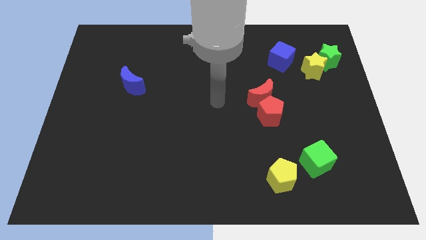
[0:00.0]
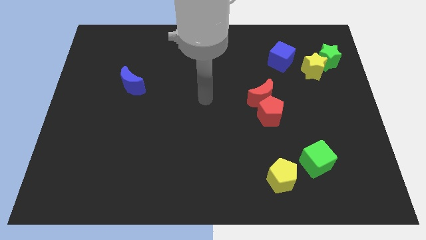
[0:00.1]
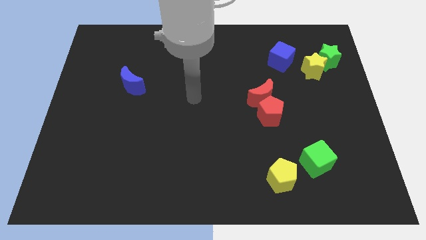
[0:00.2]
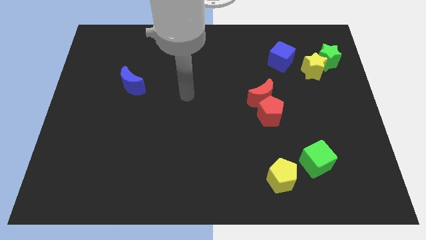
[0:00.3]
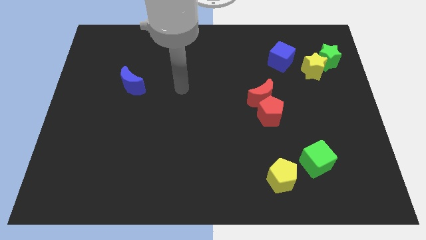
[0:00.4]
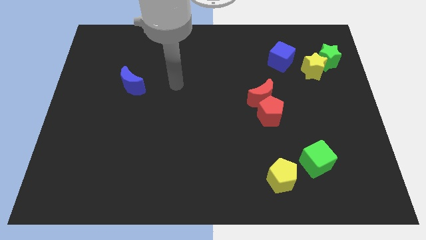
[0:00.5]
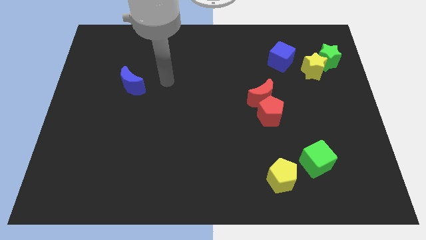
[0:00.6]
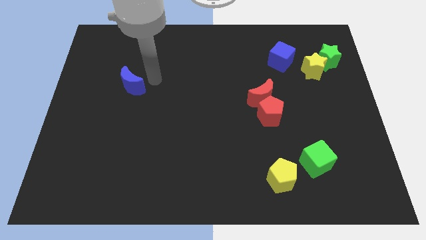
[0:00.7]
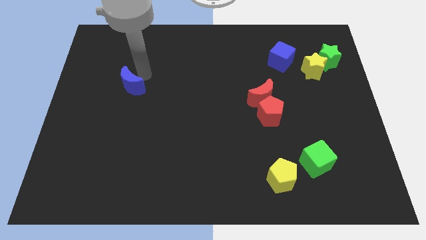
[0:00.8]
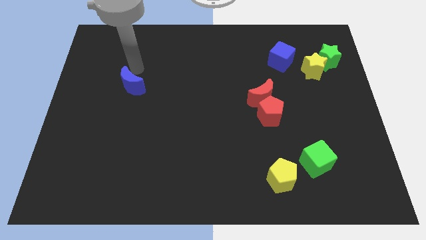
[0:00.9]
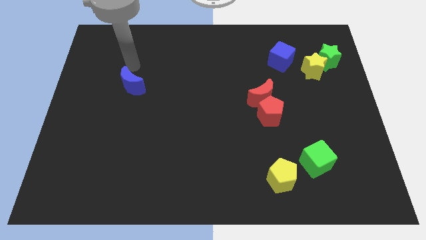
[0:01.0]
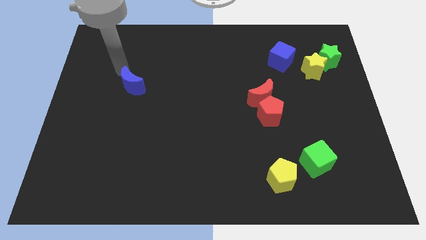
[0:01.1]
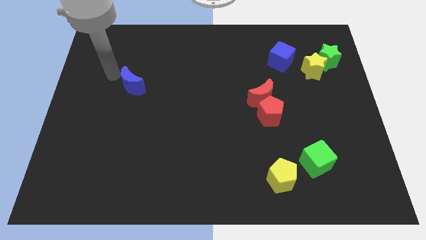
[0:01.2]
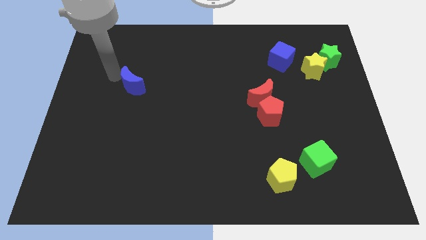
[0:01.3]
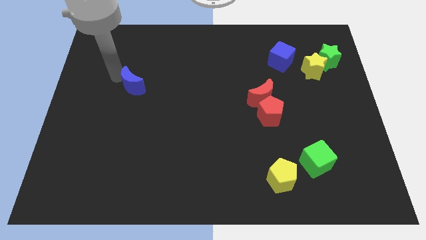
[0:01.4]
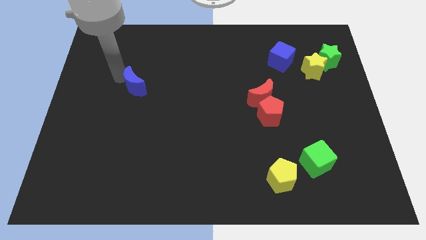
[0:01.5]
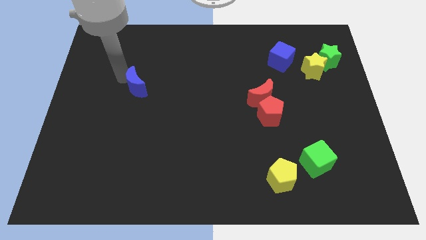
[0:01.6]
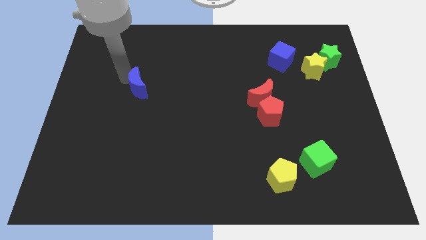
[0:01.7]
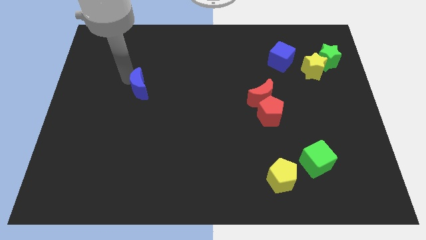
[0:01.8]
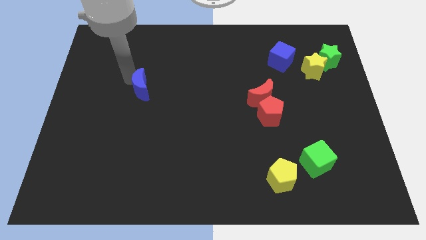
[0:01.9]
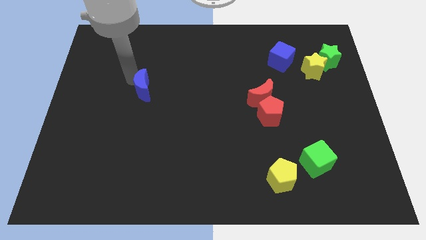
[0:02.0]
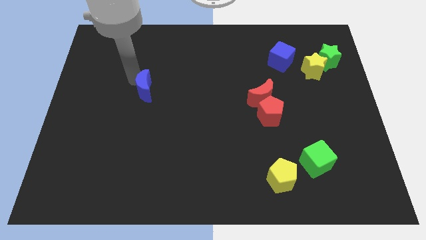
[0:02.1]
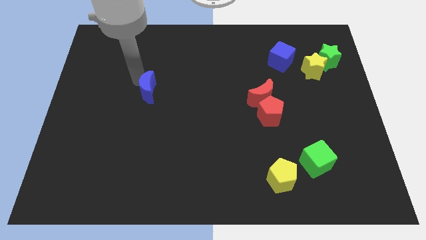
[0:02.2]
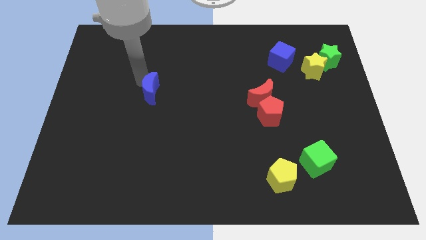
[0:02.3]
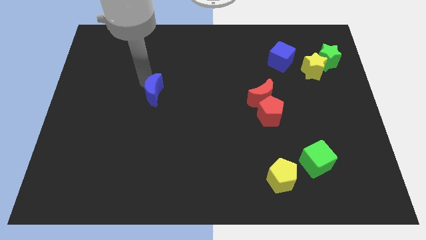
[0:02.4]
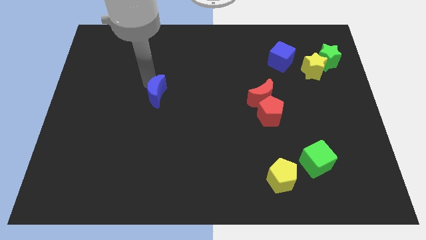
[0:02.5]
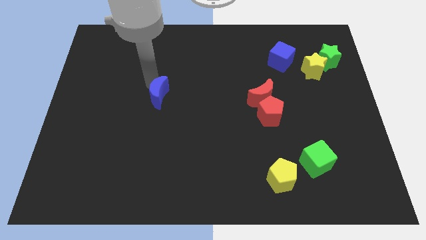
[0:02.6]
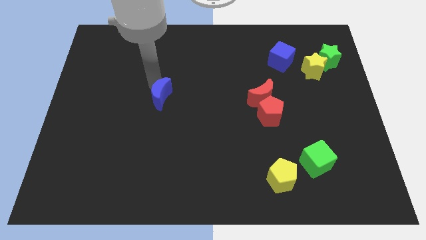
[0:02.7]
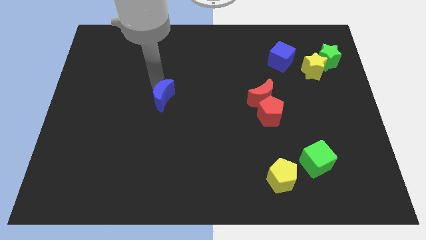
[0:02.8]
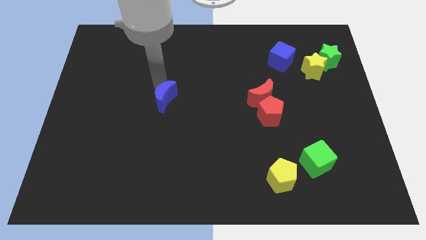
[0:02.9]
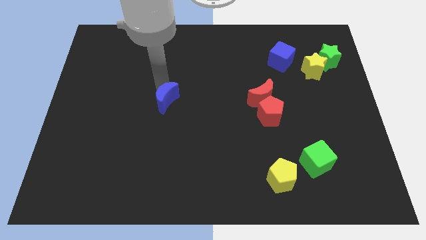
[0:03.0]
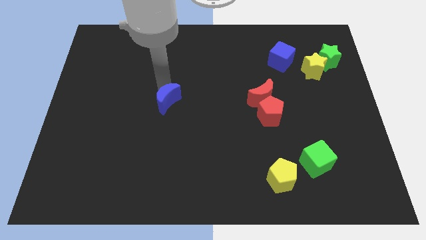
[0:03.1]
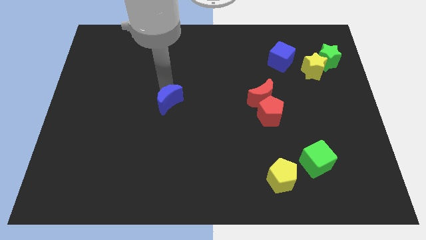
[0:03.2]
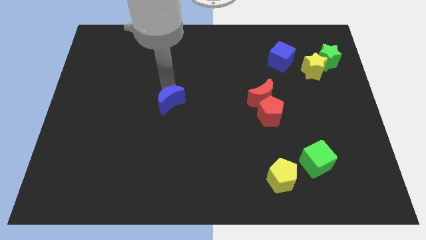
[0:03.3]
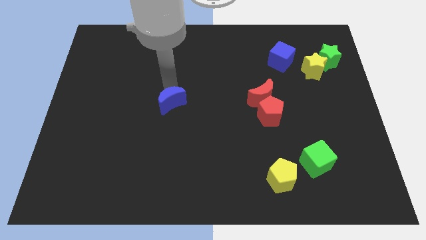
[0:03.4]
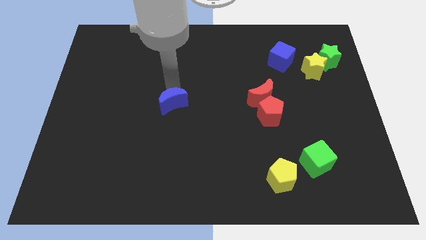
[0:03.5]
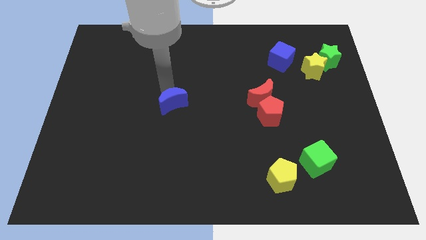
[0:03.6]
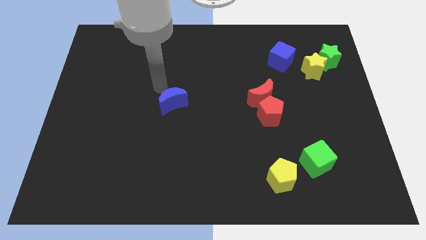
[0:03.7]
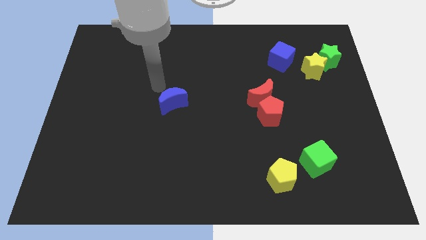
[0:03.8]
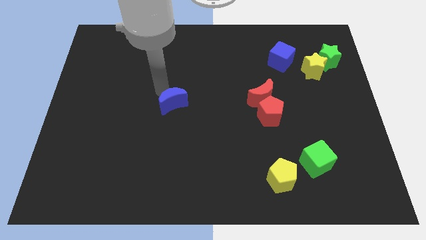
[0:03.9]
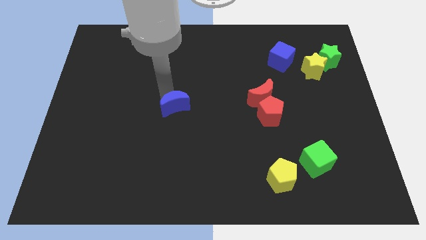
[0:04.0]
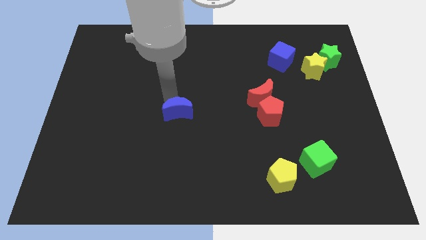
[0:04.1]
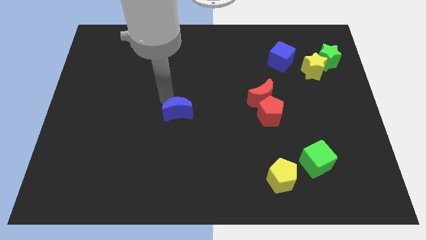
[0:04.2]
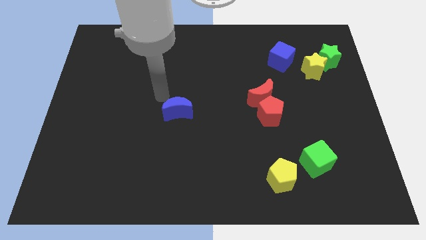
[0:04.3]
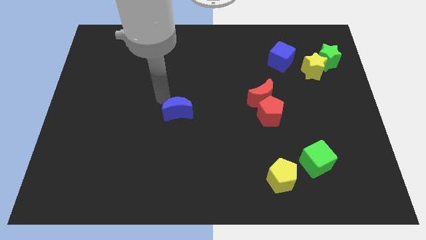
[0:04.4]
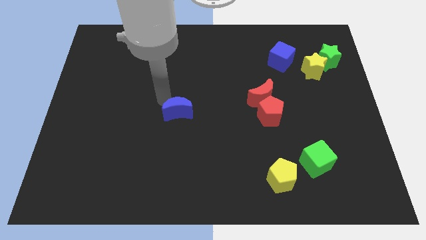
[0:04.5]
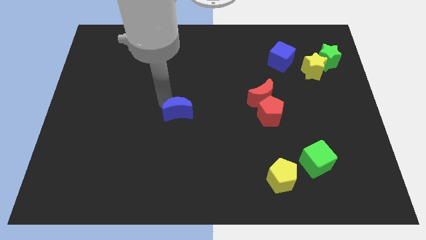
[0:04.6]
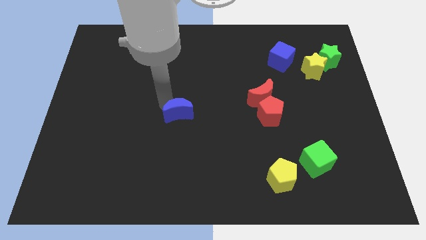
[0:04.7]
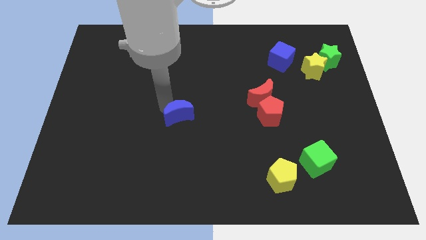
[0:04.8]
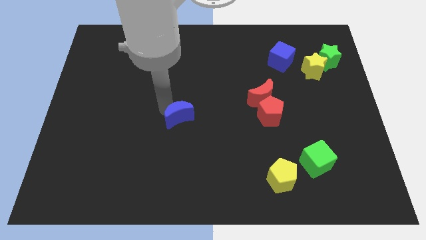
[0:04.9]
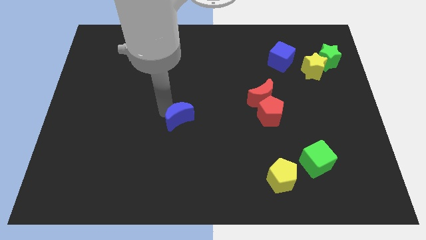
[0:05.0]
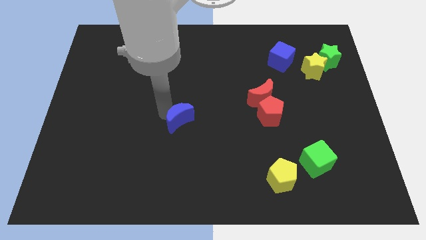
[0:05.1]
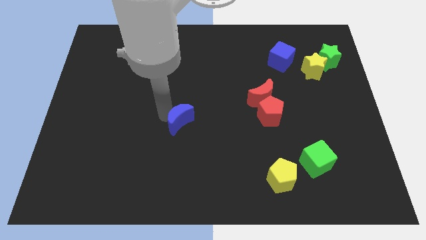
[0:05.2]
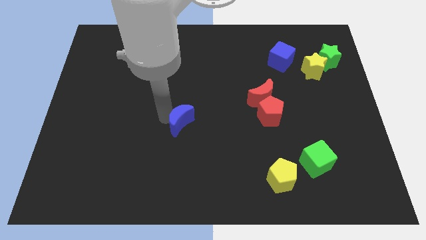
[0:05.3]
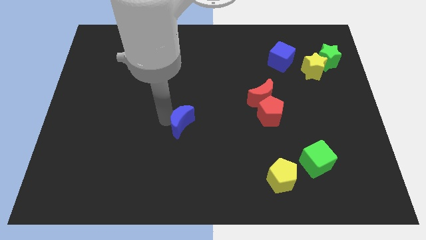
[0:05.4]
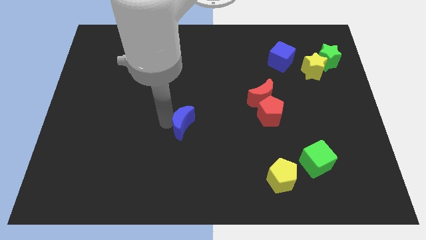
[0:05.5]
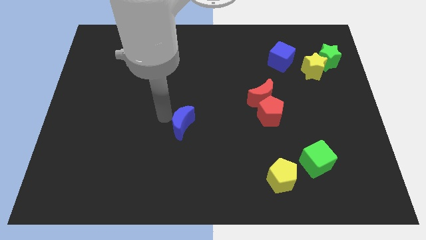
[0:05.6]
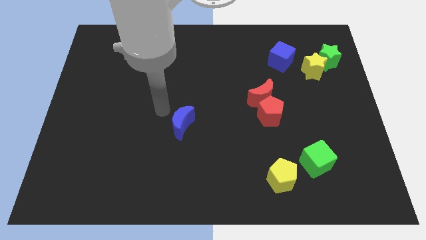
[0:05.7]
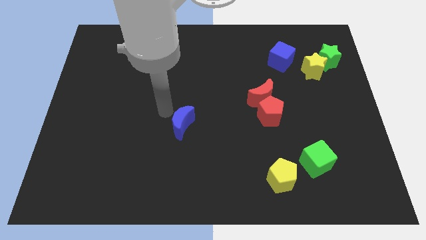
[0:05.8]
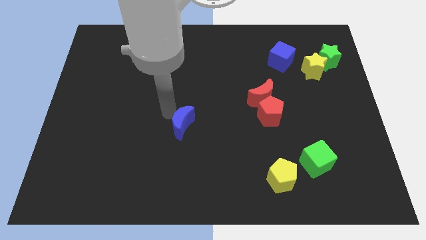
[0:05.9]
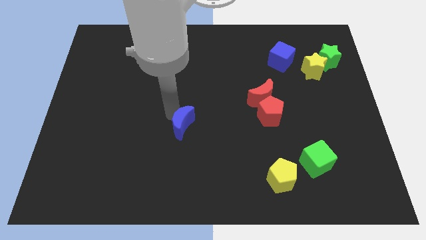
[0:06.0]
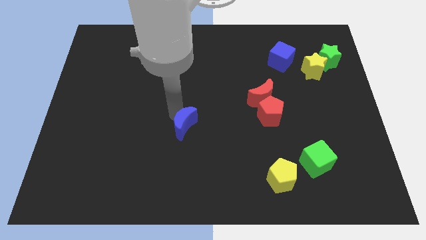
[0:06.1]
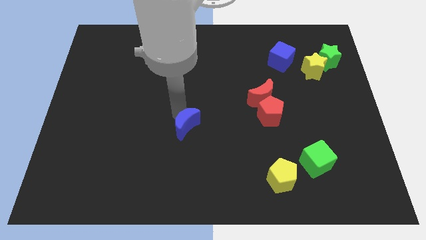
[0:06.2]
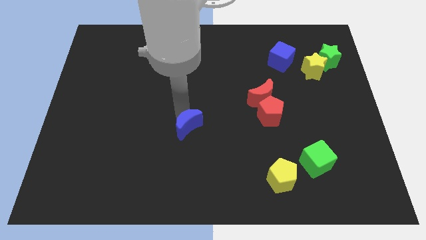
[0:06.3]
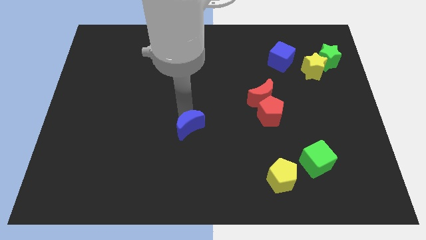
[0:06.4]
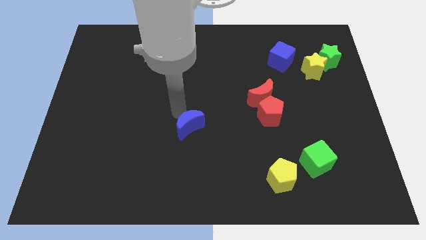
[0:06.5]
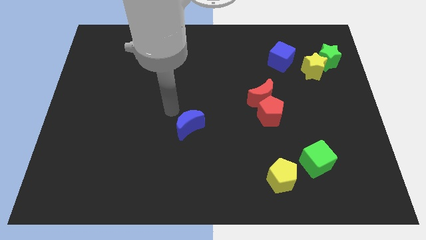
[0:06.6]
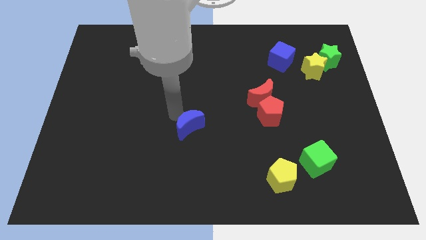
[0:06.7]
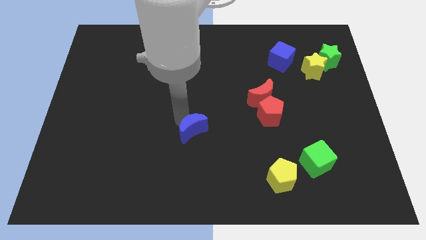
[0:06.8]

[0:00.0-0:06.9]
slide the blue moon down and right

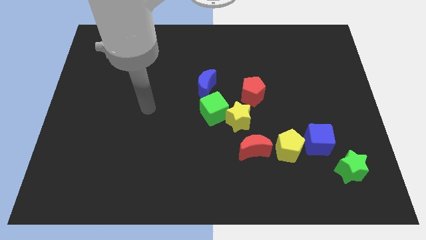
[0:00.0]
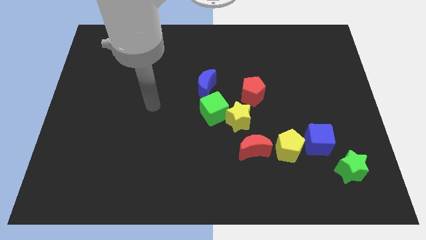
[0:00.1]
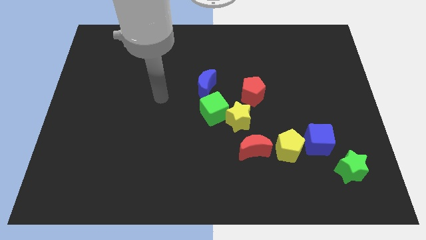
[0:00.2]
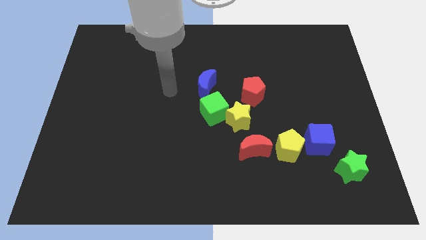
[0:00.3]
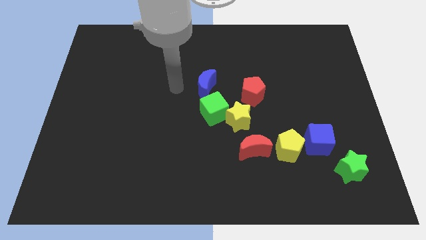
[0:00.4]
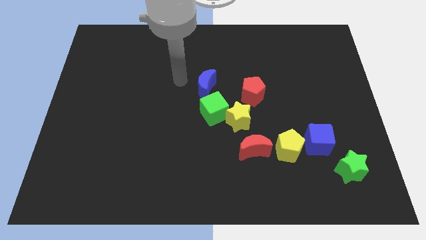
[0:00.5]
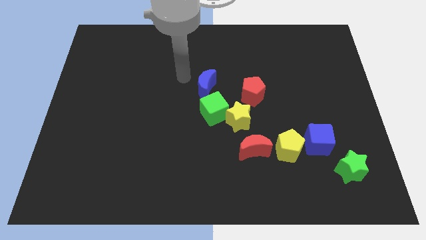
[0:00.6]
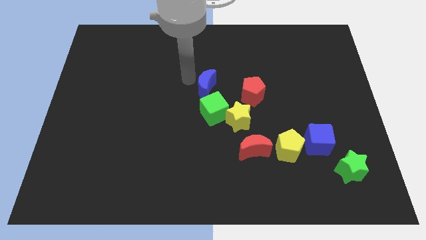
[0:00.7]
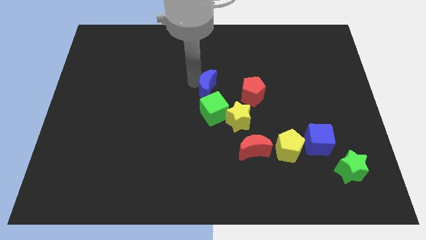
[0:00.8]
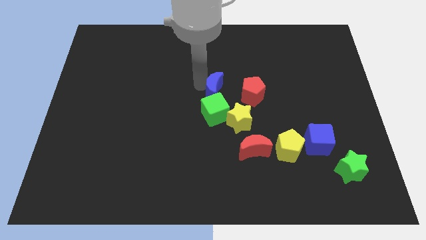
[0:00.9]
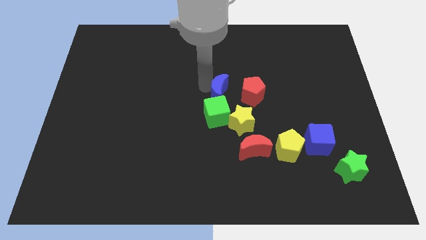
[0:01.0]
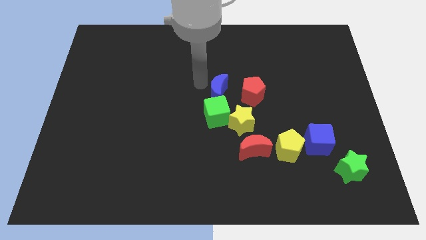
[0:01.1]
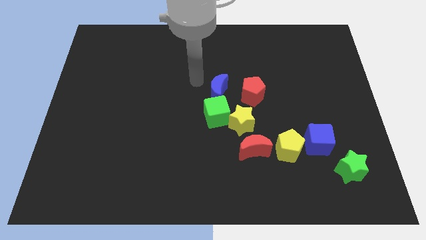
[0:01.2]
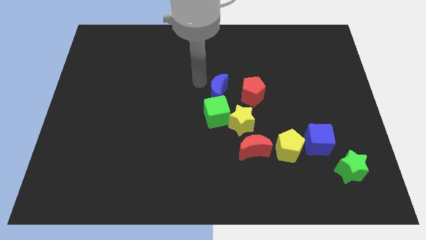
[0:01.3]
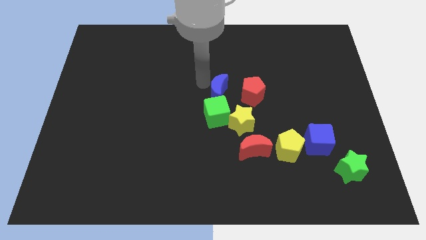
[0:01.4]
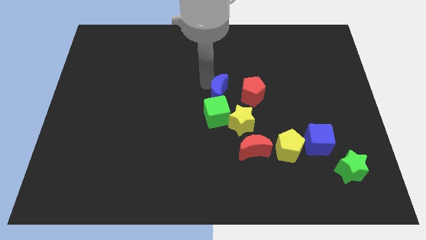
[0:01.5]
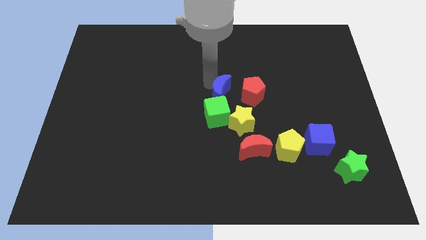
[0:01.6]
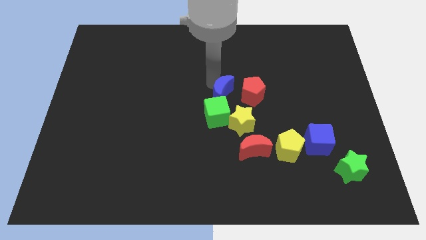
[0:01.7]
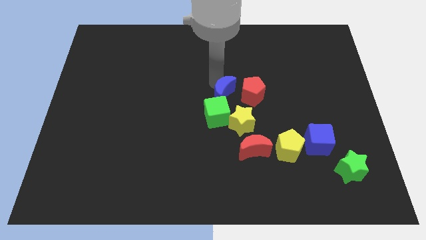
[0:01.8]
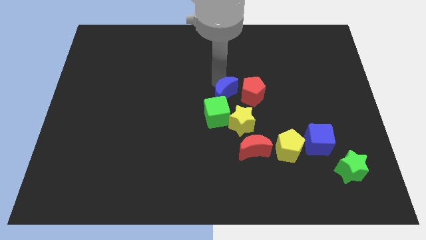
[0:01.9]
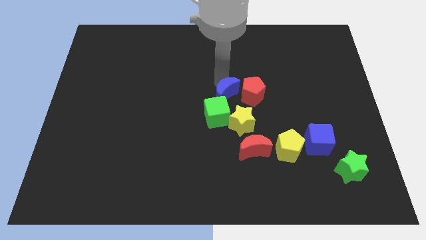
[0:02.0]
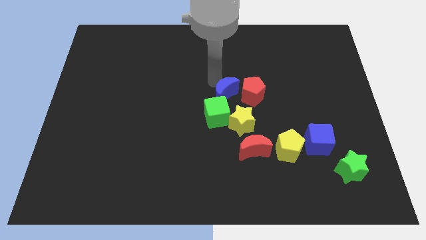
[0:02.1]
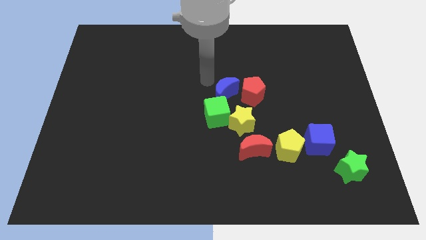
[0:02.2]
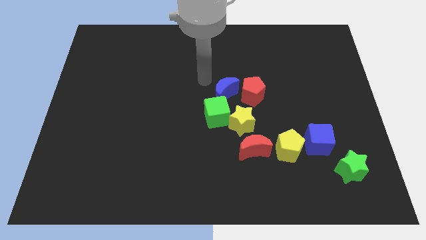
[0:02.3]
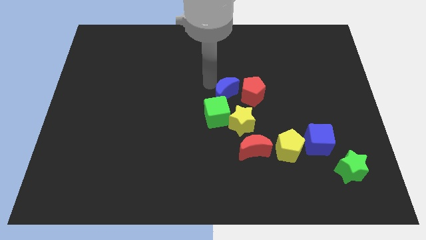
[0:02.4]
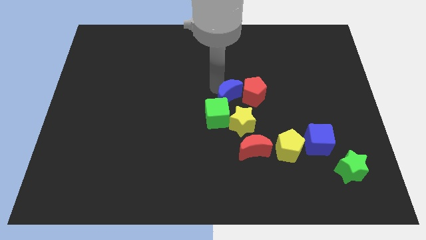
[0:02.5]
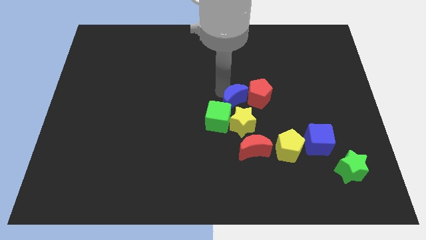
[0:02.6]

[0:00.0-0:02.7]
slightly push the blue moon down and then to the right
